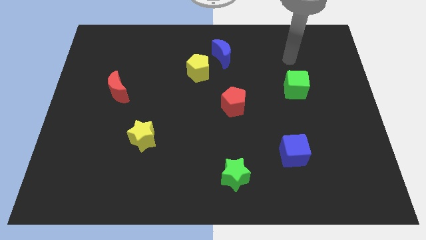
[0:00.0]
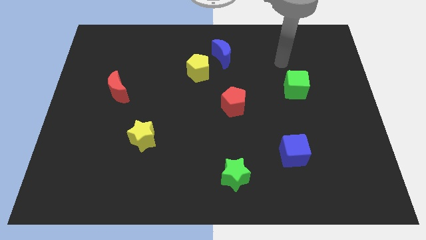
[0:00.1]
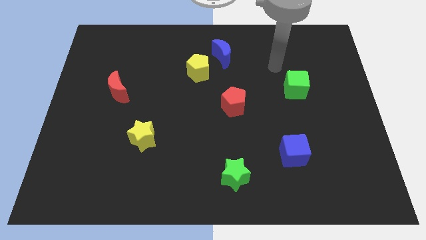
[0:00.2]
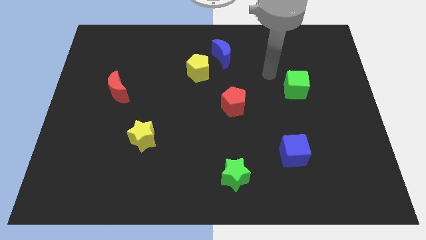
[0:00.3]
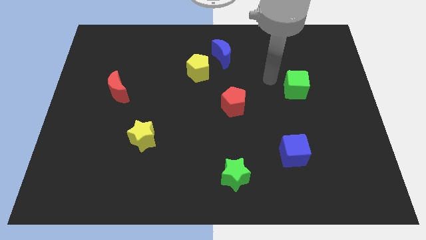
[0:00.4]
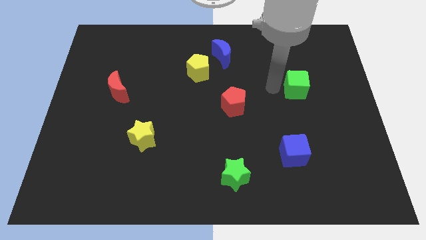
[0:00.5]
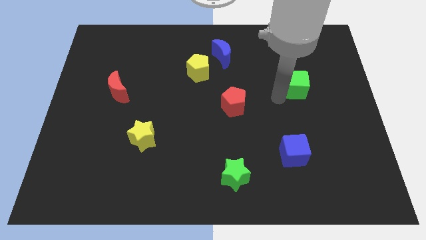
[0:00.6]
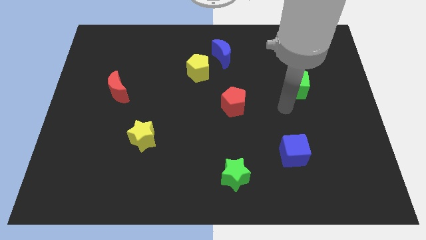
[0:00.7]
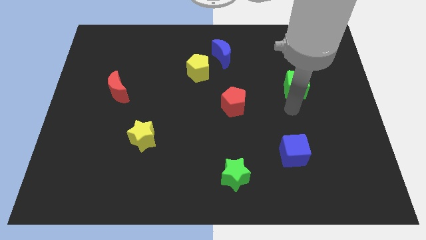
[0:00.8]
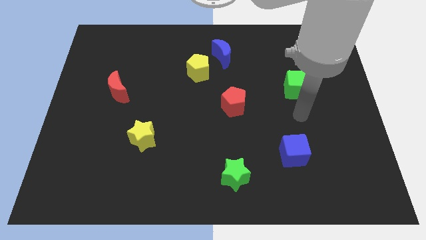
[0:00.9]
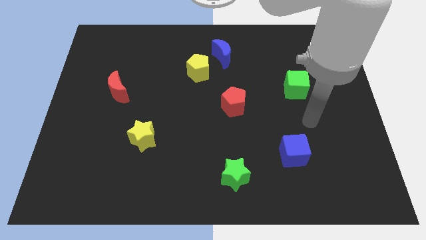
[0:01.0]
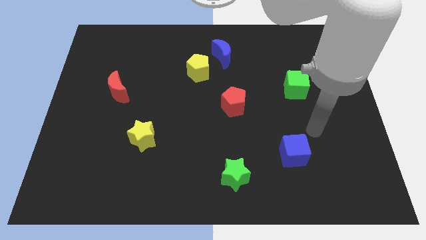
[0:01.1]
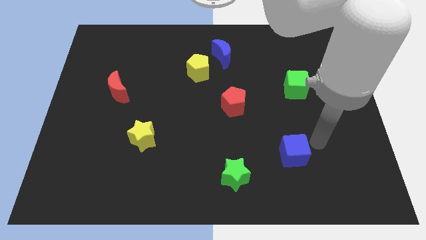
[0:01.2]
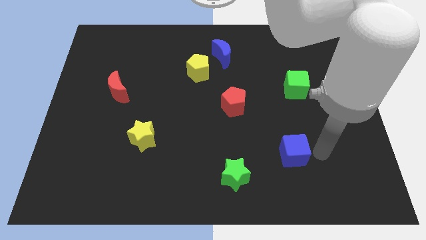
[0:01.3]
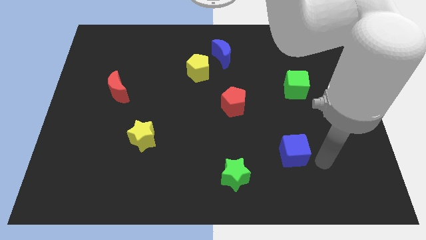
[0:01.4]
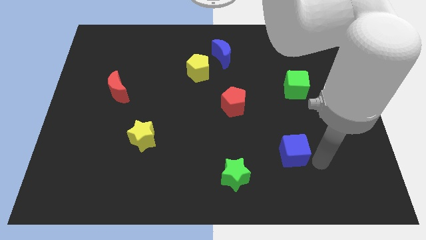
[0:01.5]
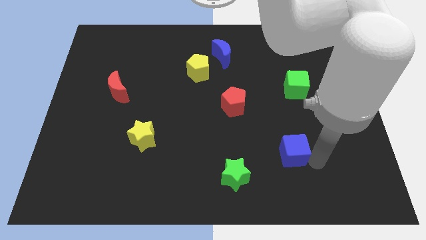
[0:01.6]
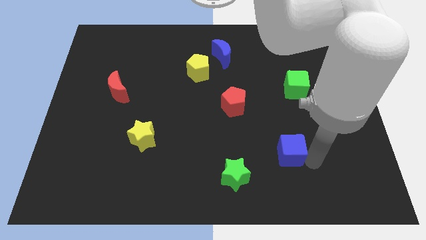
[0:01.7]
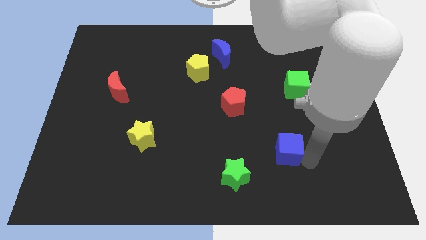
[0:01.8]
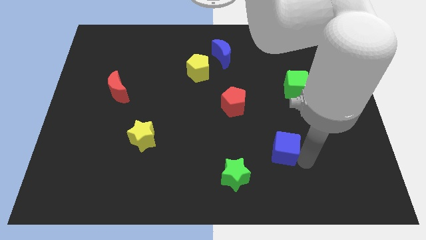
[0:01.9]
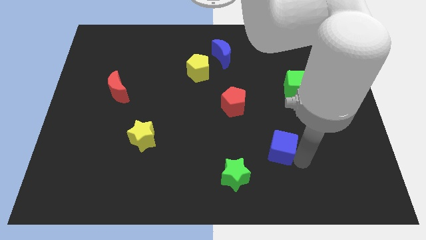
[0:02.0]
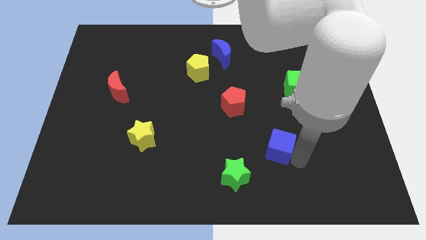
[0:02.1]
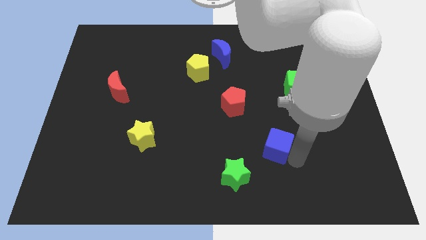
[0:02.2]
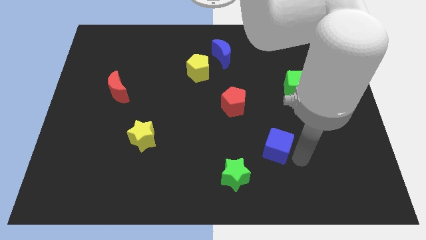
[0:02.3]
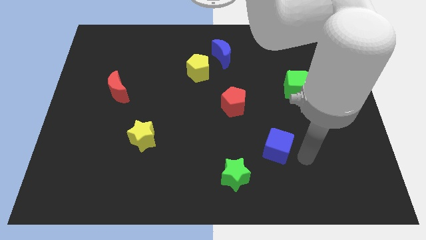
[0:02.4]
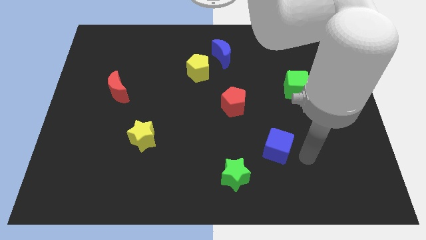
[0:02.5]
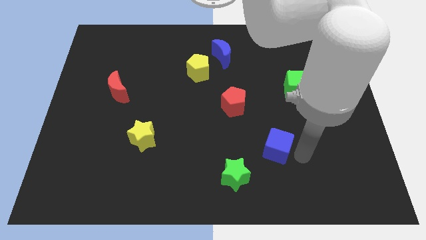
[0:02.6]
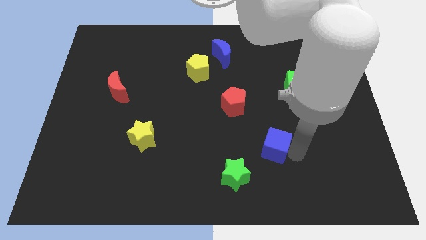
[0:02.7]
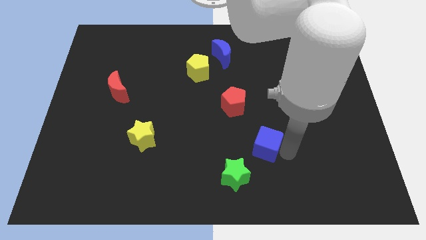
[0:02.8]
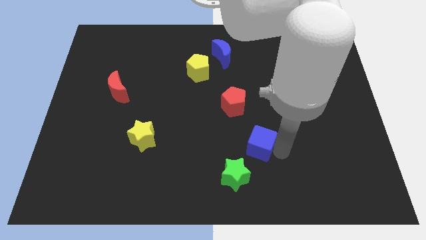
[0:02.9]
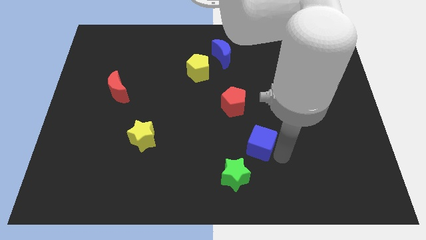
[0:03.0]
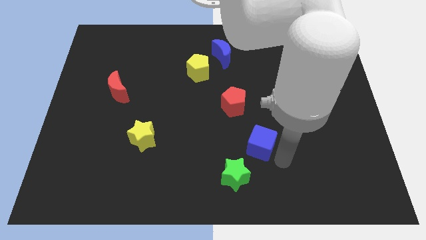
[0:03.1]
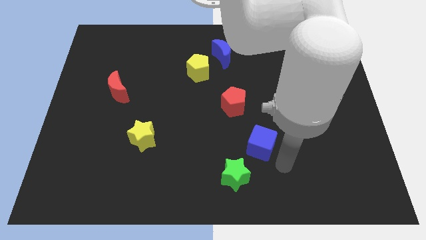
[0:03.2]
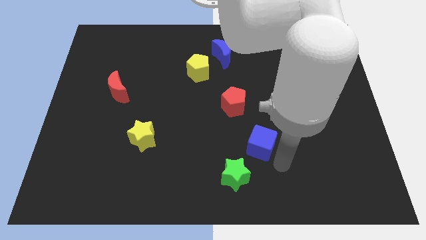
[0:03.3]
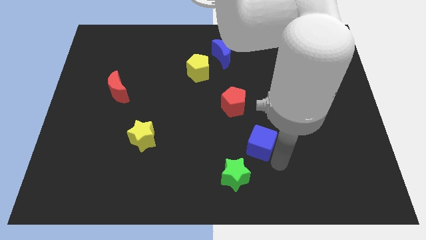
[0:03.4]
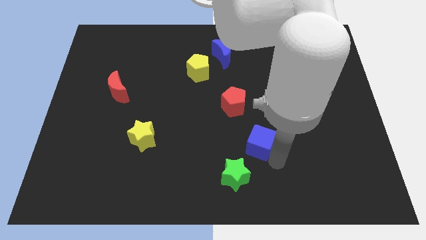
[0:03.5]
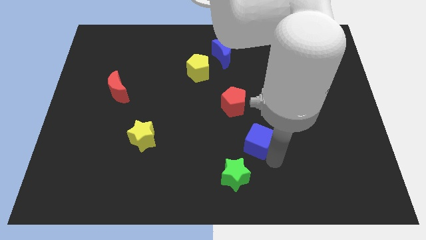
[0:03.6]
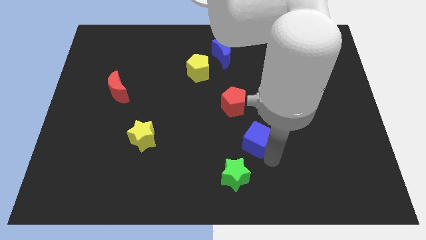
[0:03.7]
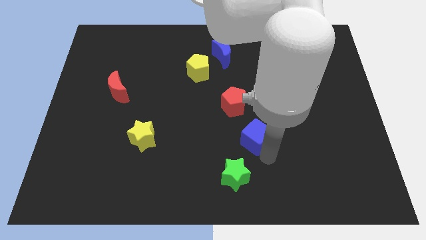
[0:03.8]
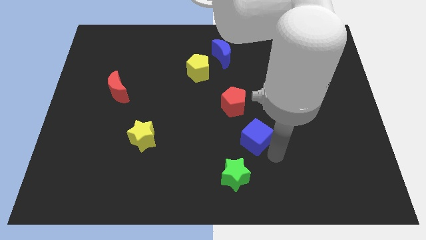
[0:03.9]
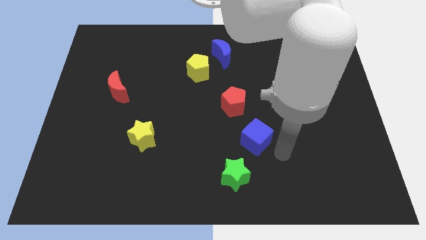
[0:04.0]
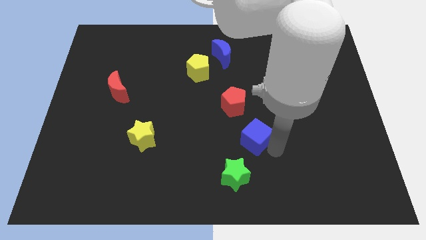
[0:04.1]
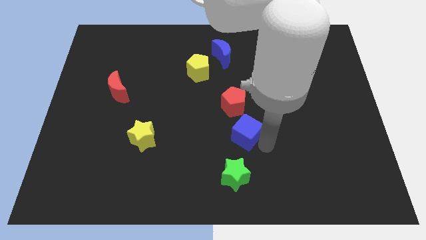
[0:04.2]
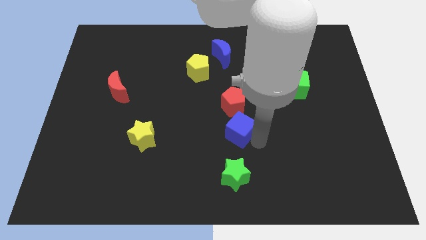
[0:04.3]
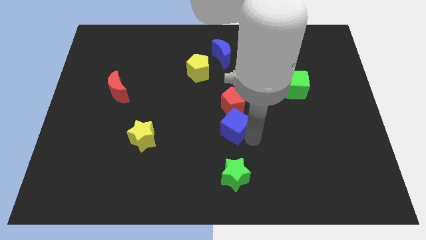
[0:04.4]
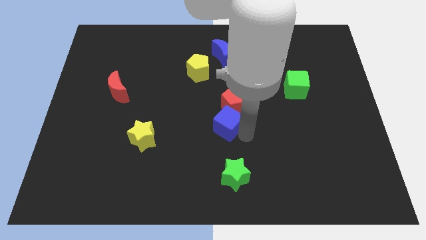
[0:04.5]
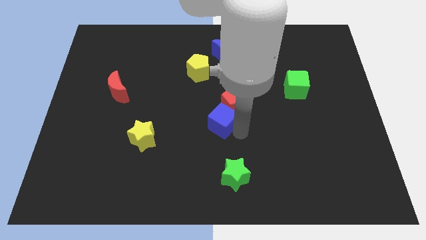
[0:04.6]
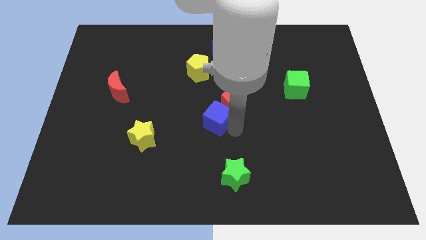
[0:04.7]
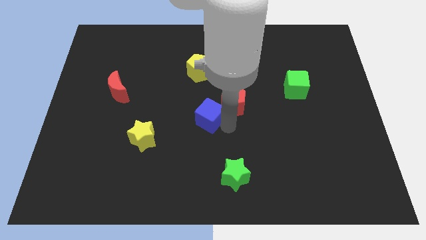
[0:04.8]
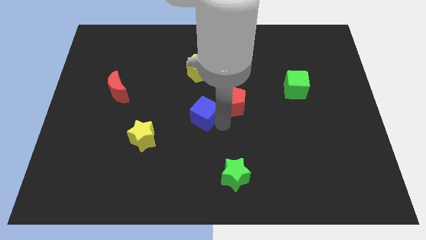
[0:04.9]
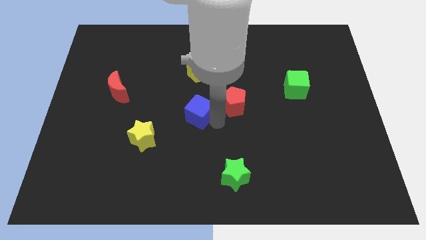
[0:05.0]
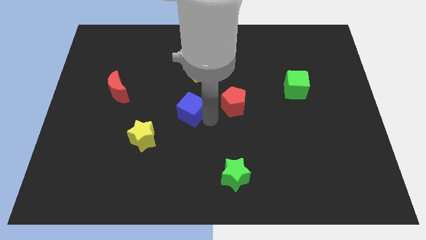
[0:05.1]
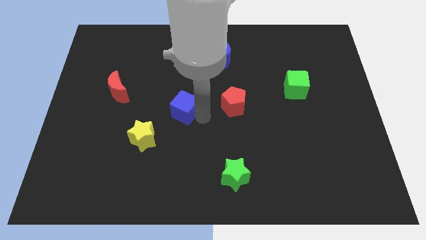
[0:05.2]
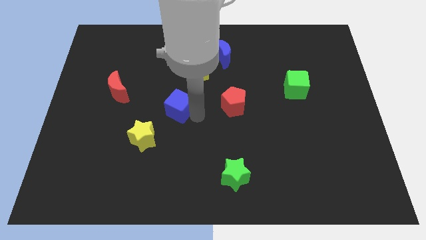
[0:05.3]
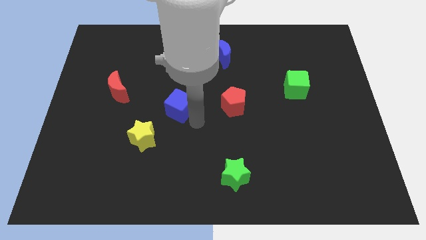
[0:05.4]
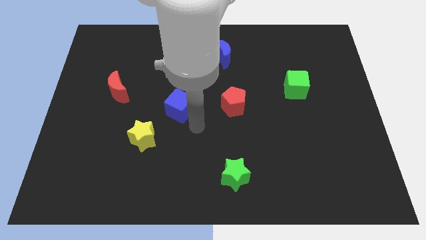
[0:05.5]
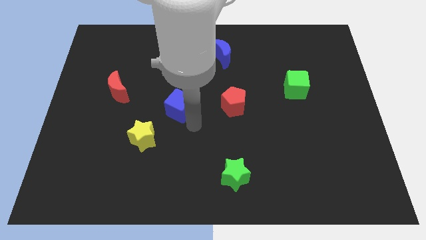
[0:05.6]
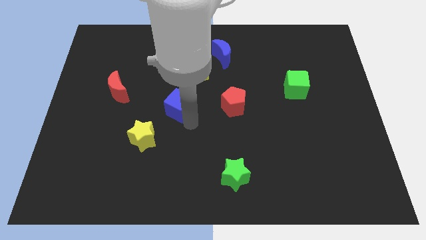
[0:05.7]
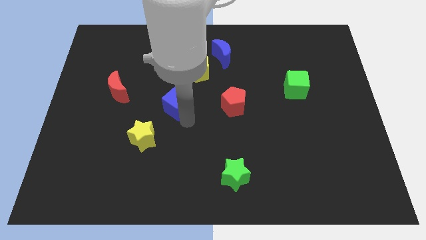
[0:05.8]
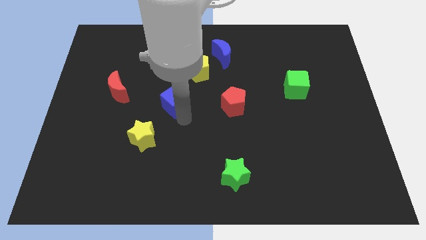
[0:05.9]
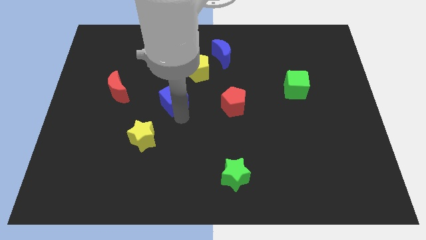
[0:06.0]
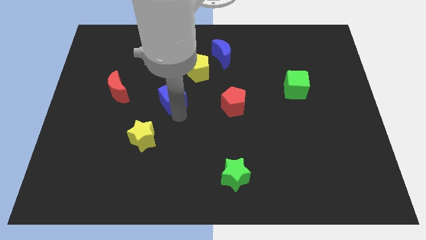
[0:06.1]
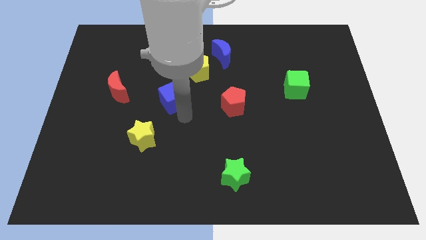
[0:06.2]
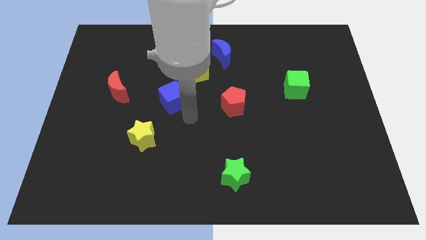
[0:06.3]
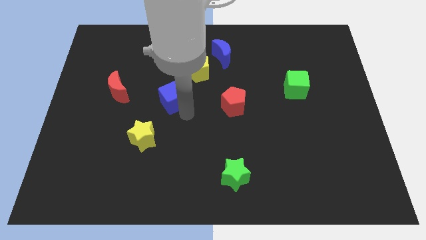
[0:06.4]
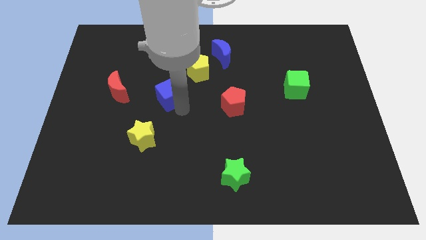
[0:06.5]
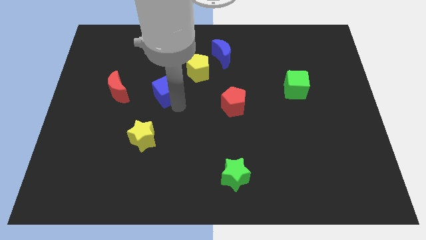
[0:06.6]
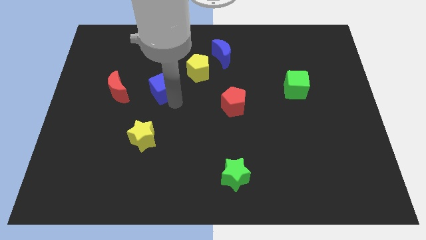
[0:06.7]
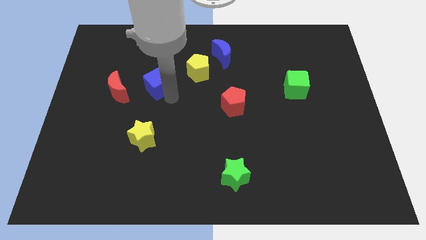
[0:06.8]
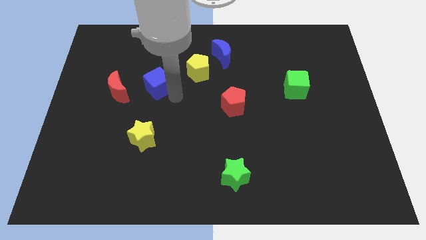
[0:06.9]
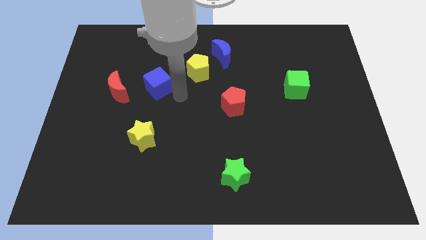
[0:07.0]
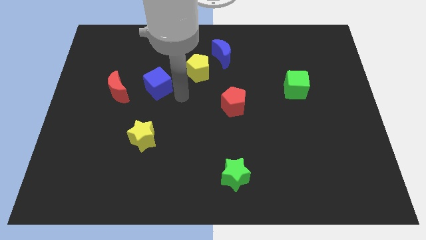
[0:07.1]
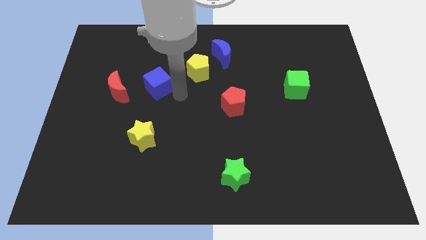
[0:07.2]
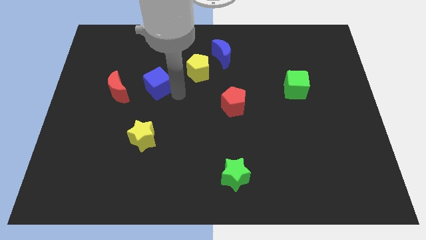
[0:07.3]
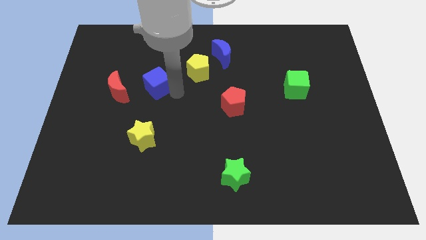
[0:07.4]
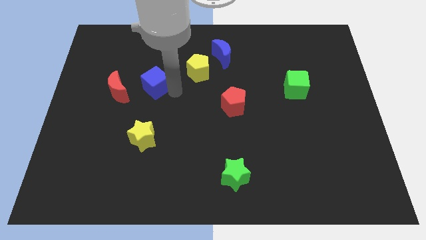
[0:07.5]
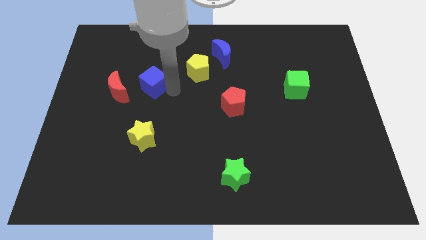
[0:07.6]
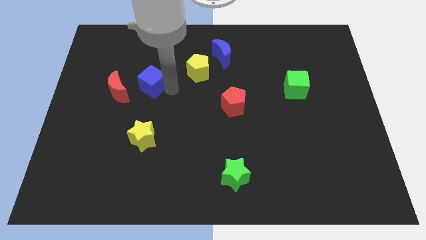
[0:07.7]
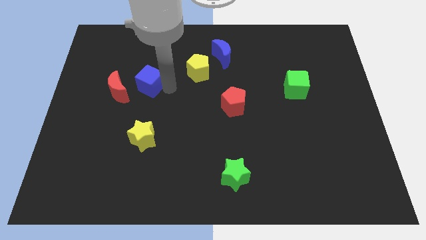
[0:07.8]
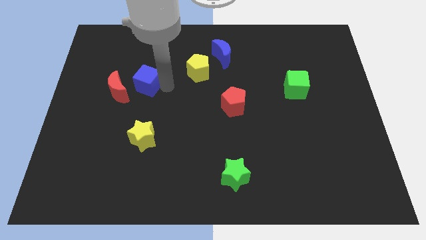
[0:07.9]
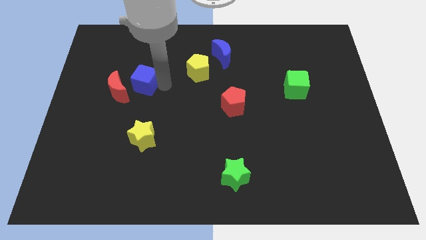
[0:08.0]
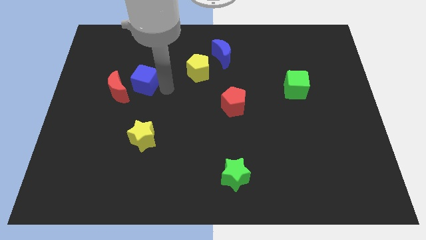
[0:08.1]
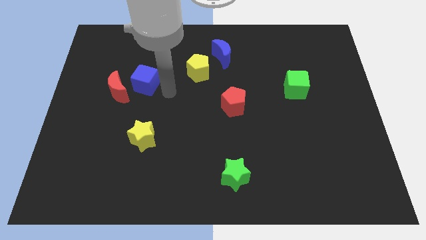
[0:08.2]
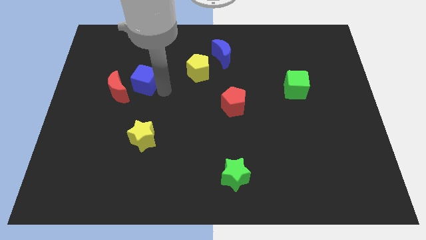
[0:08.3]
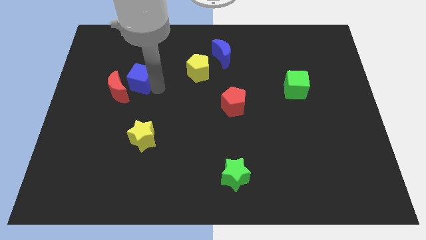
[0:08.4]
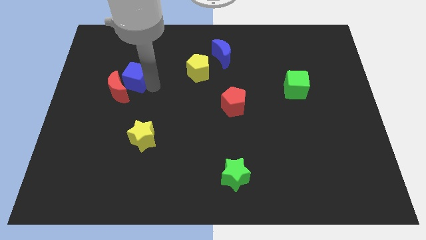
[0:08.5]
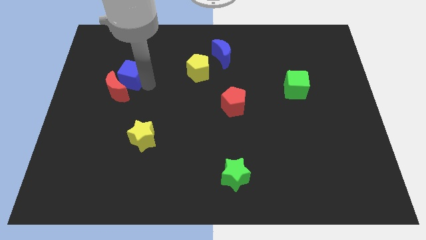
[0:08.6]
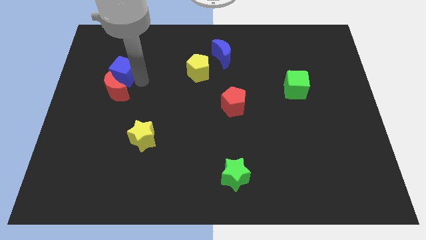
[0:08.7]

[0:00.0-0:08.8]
push the blue cube to the top left side of the red moon
